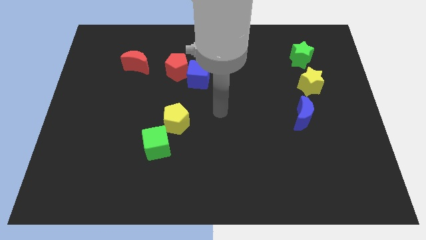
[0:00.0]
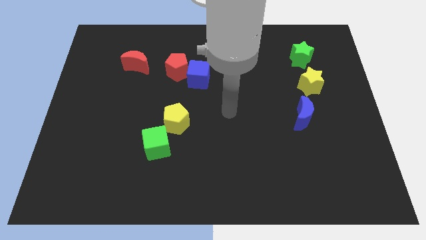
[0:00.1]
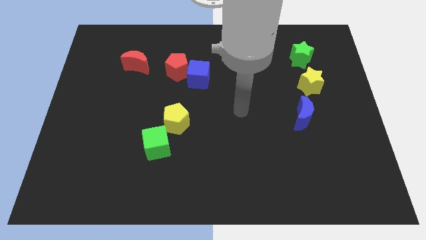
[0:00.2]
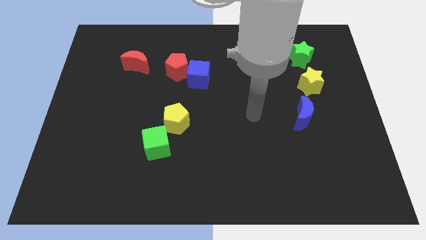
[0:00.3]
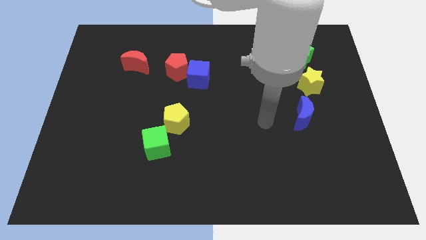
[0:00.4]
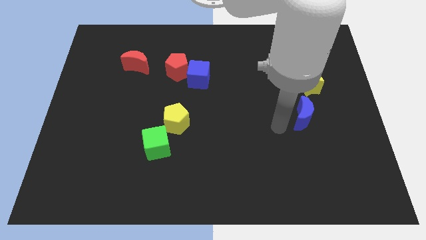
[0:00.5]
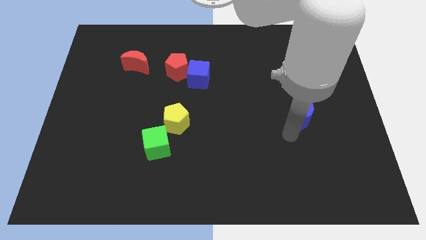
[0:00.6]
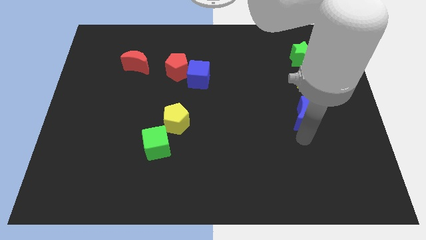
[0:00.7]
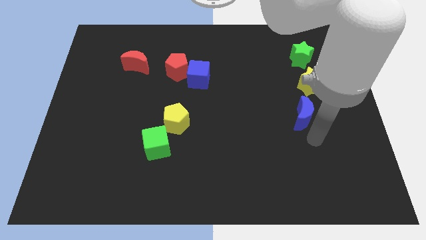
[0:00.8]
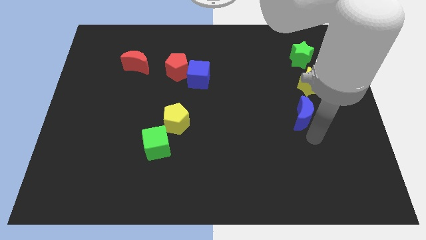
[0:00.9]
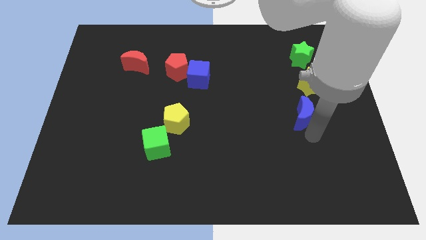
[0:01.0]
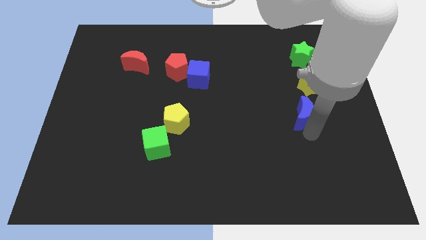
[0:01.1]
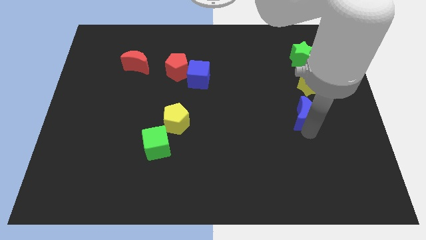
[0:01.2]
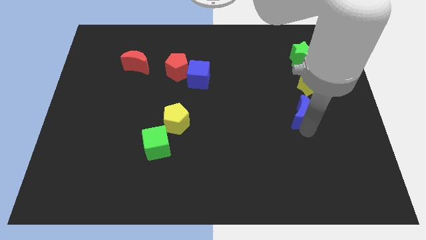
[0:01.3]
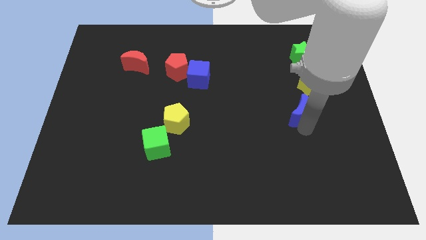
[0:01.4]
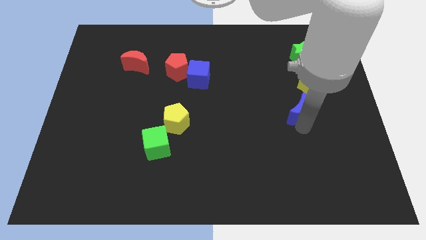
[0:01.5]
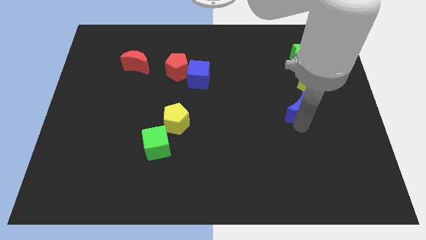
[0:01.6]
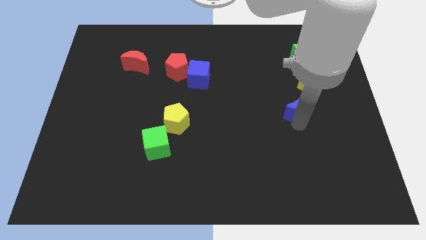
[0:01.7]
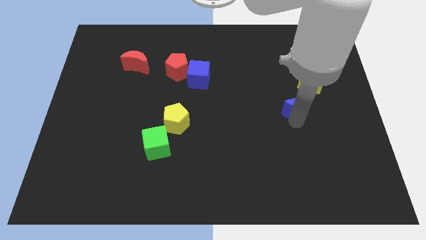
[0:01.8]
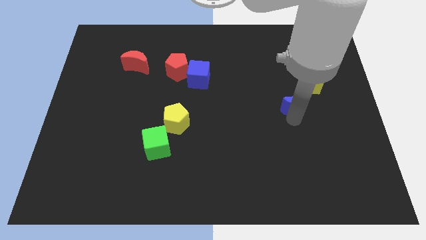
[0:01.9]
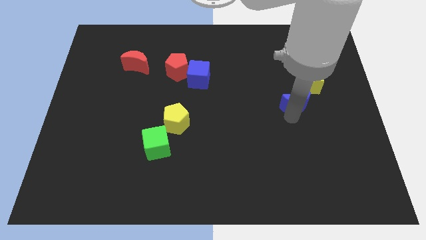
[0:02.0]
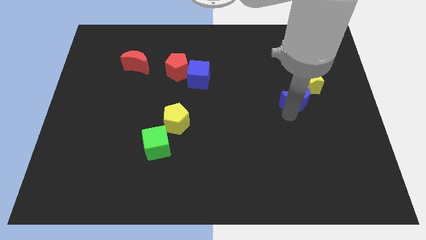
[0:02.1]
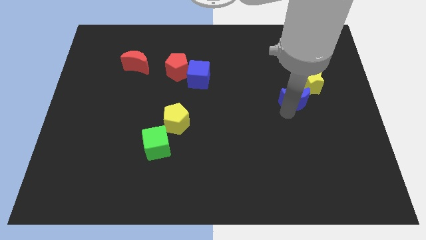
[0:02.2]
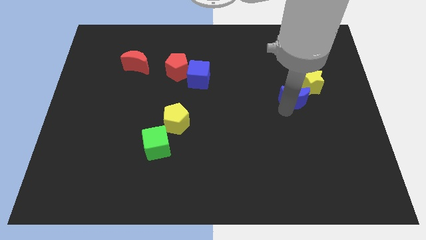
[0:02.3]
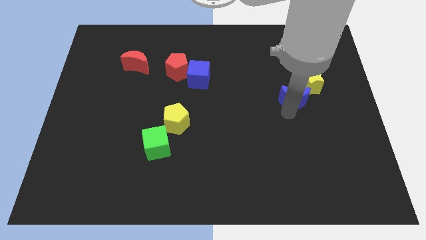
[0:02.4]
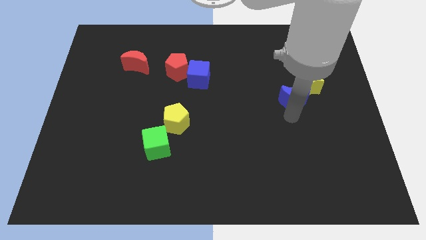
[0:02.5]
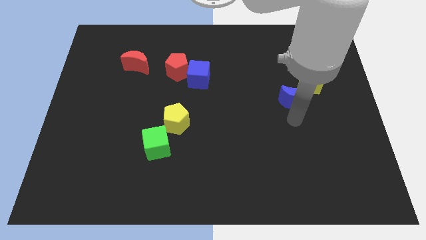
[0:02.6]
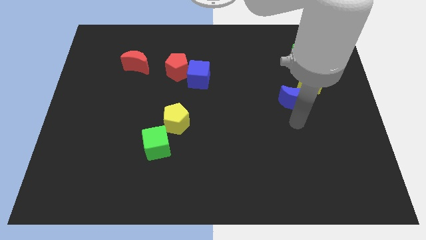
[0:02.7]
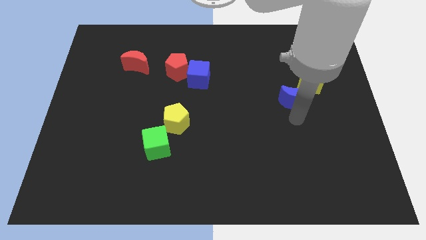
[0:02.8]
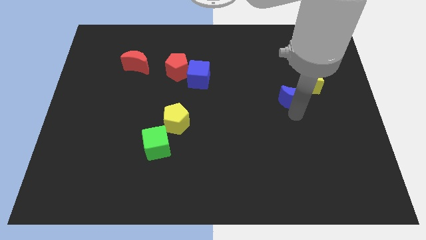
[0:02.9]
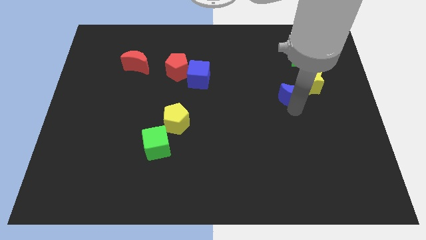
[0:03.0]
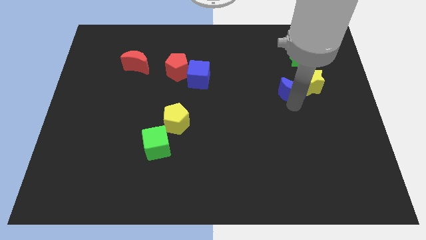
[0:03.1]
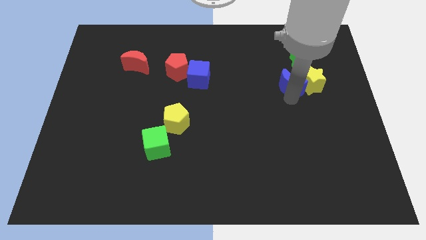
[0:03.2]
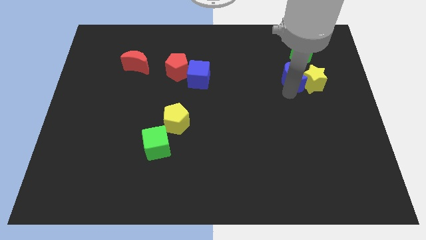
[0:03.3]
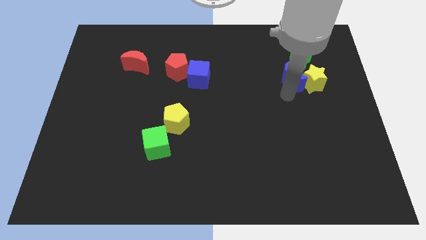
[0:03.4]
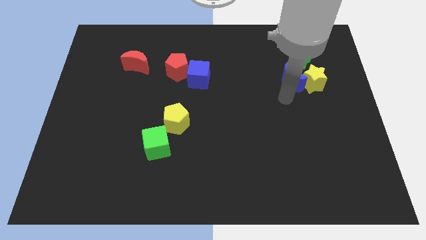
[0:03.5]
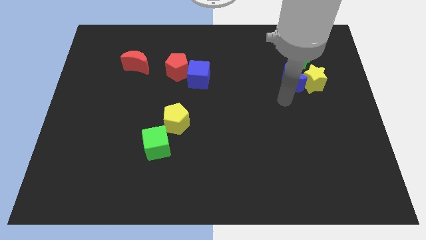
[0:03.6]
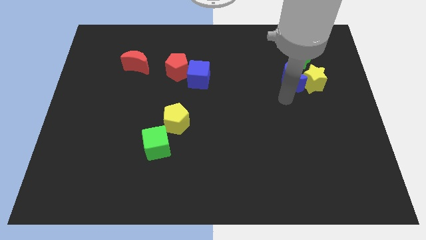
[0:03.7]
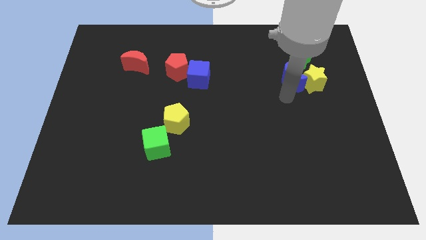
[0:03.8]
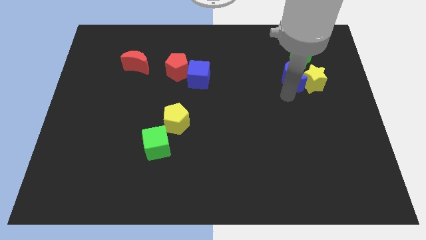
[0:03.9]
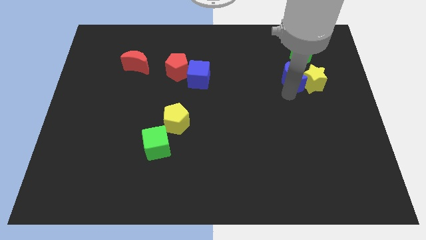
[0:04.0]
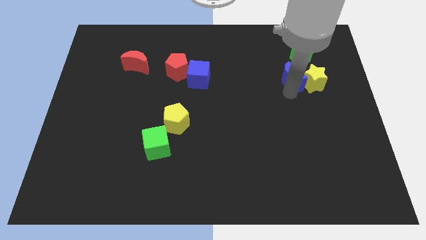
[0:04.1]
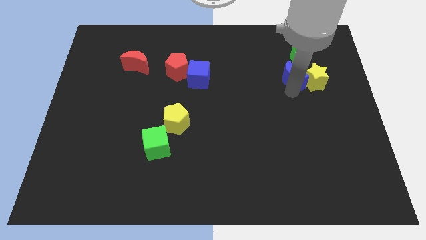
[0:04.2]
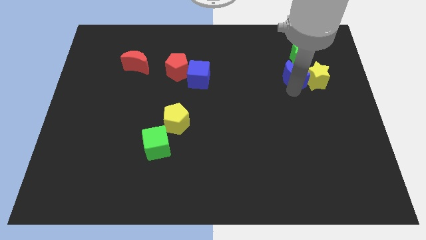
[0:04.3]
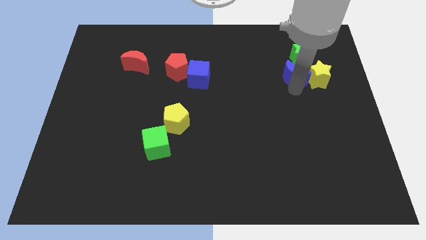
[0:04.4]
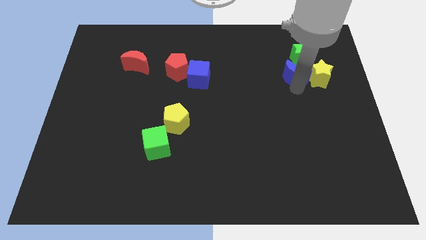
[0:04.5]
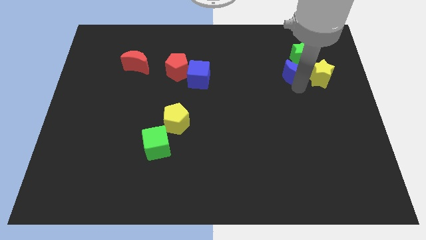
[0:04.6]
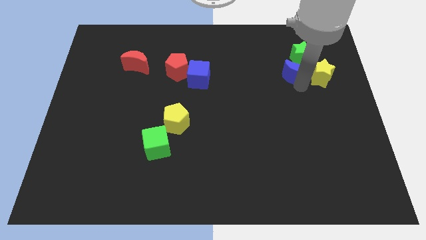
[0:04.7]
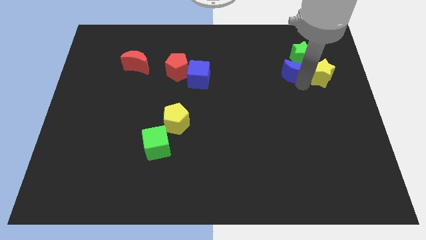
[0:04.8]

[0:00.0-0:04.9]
put the blue moon to the green star

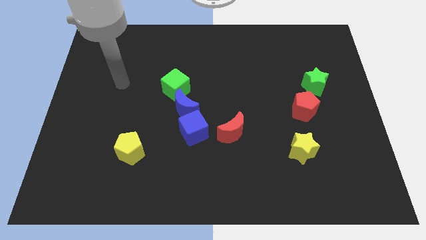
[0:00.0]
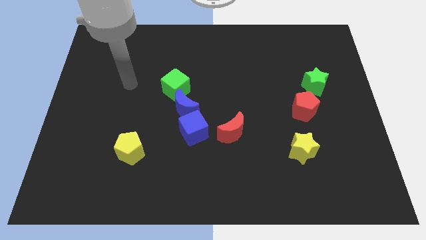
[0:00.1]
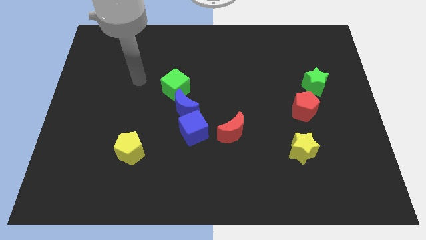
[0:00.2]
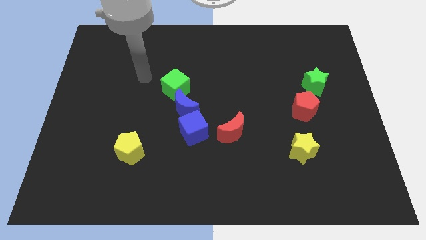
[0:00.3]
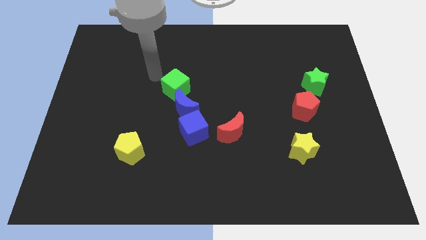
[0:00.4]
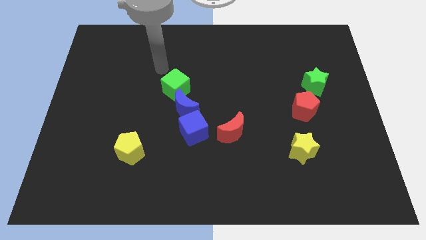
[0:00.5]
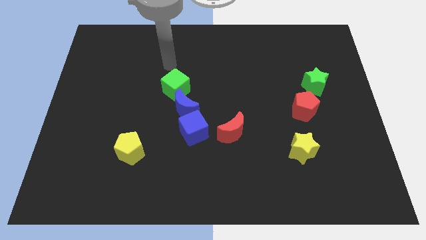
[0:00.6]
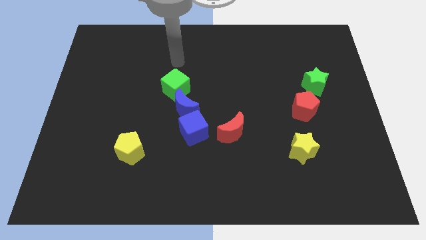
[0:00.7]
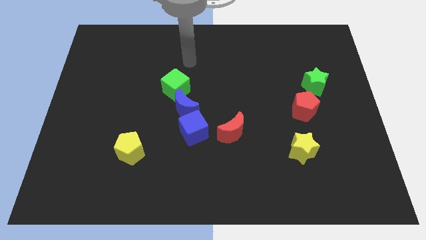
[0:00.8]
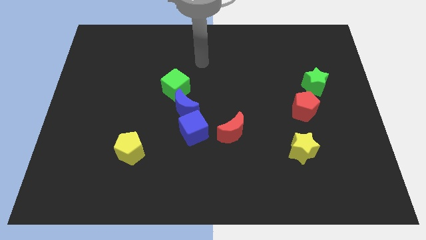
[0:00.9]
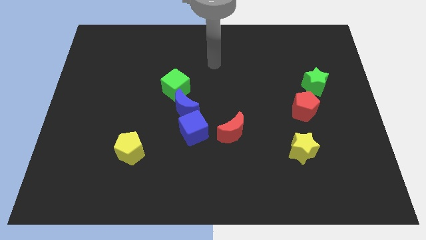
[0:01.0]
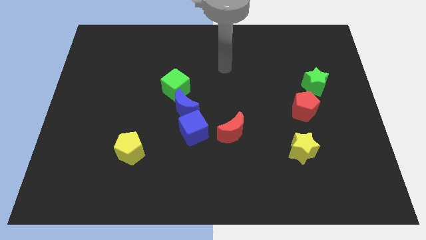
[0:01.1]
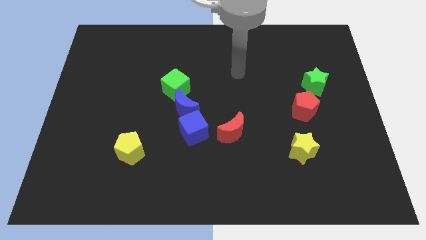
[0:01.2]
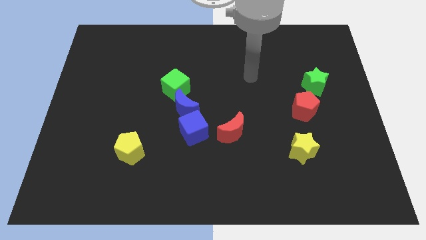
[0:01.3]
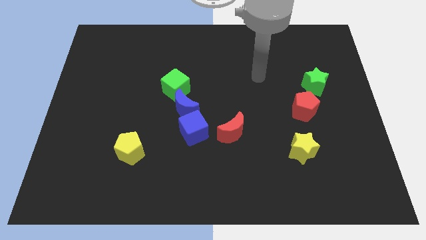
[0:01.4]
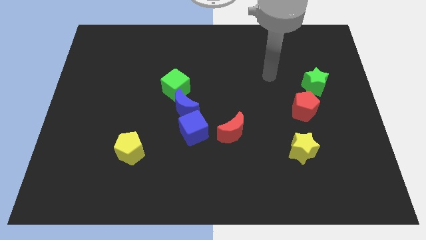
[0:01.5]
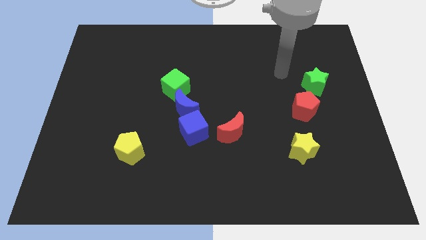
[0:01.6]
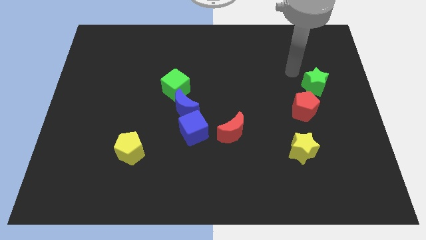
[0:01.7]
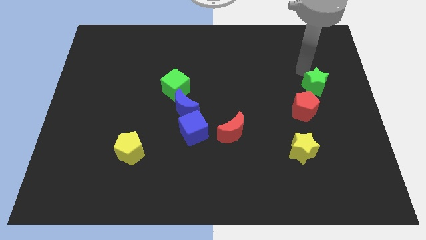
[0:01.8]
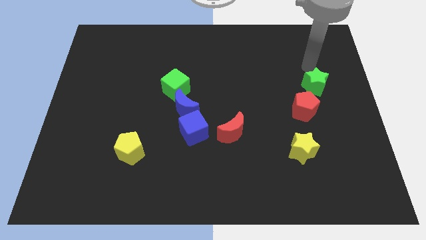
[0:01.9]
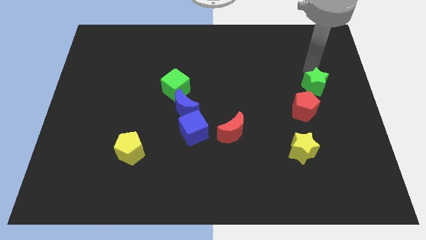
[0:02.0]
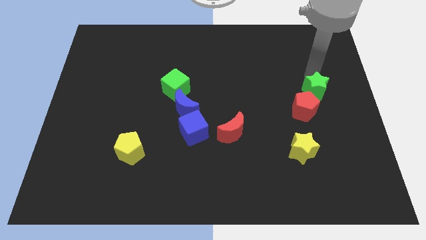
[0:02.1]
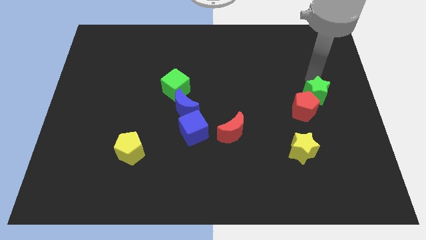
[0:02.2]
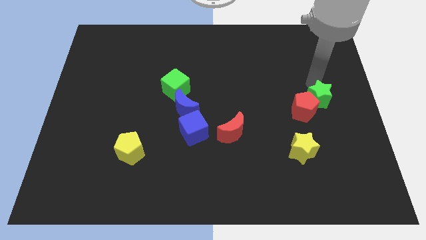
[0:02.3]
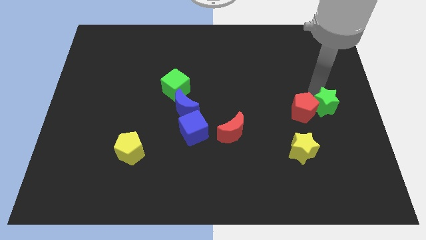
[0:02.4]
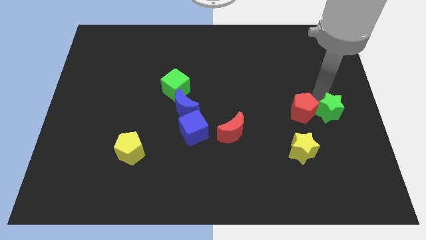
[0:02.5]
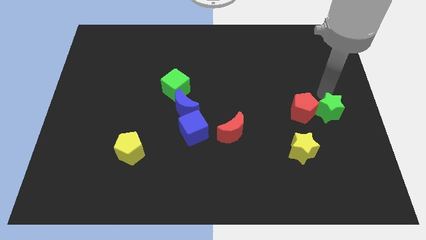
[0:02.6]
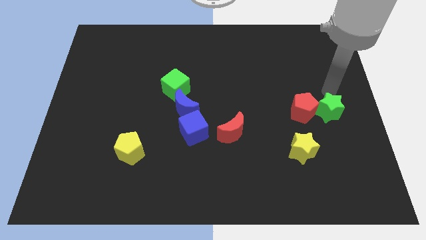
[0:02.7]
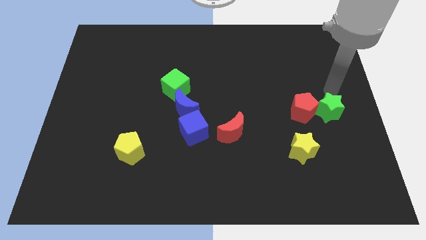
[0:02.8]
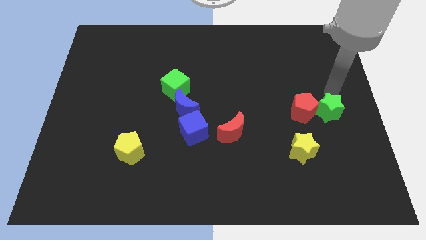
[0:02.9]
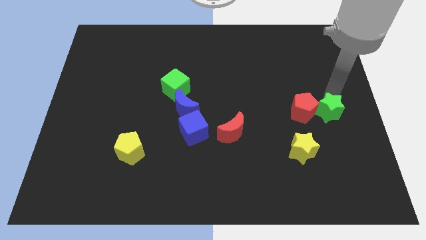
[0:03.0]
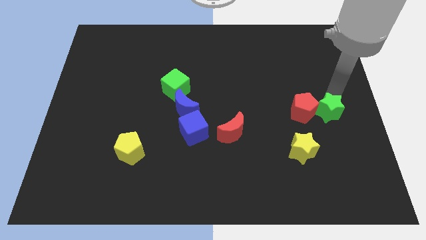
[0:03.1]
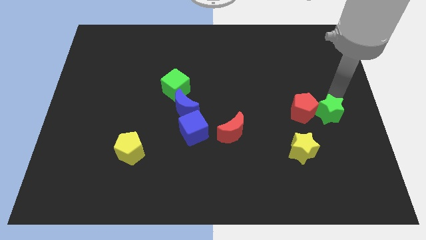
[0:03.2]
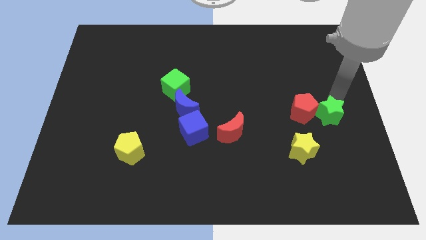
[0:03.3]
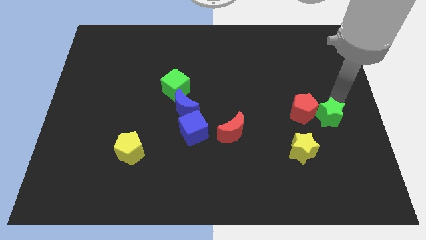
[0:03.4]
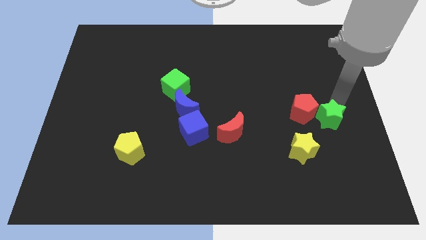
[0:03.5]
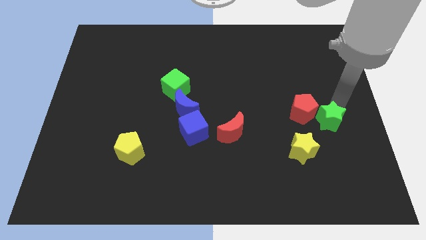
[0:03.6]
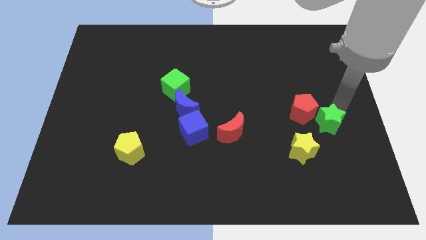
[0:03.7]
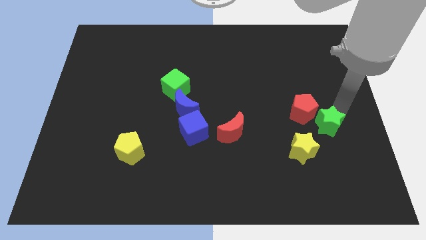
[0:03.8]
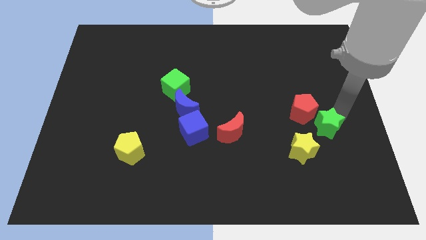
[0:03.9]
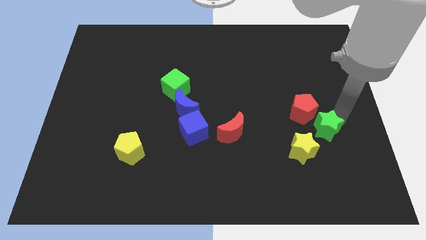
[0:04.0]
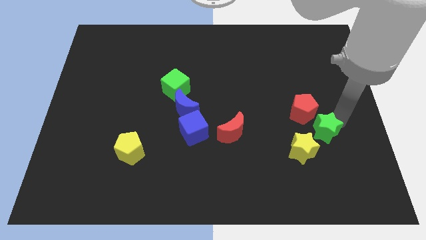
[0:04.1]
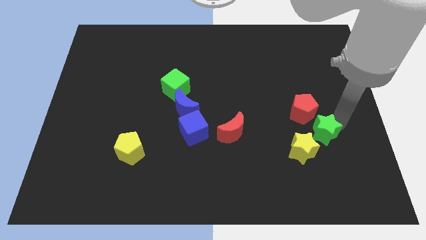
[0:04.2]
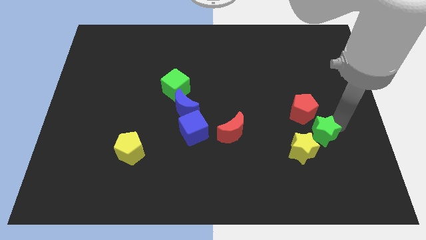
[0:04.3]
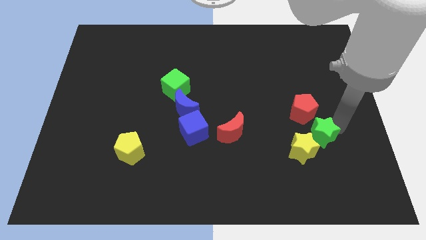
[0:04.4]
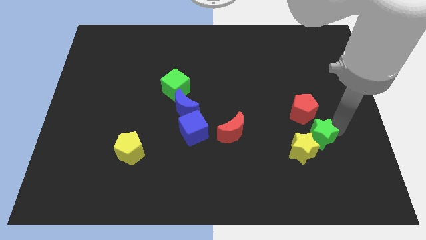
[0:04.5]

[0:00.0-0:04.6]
put the green star next to the yellow star
